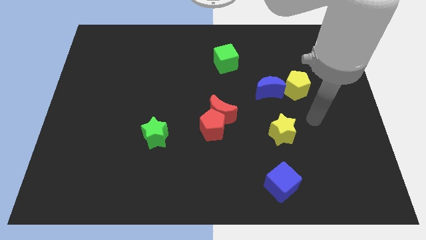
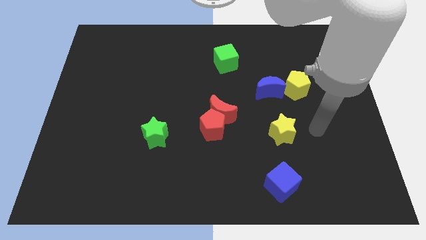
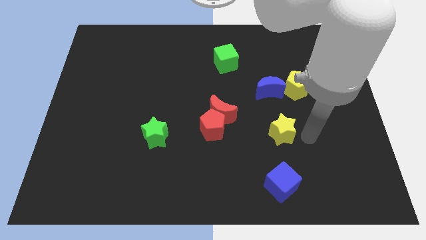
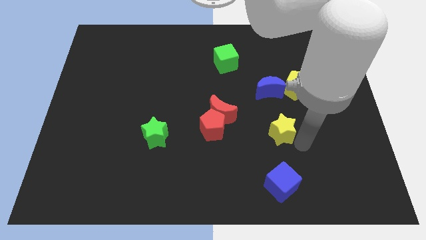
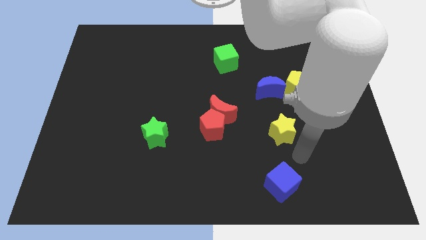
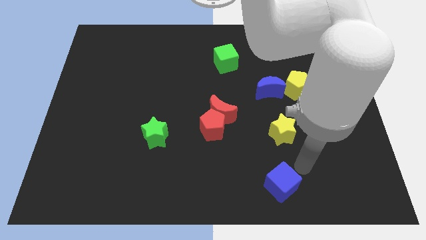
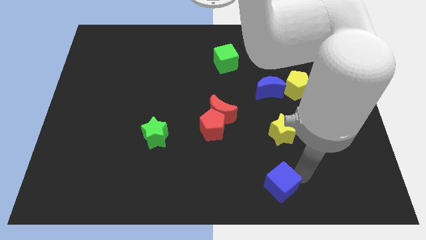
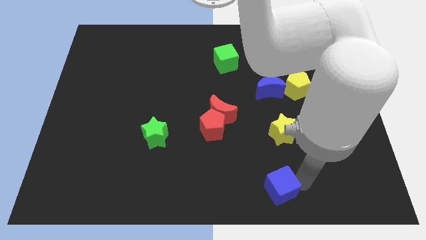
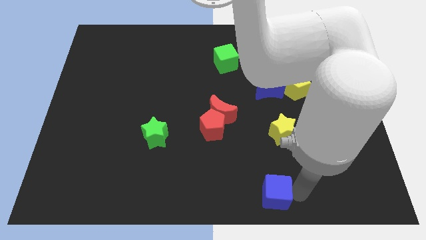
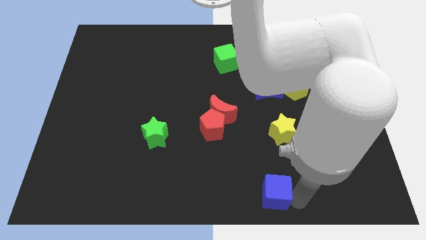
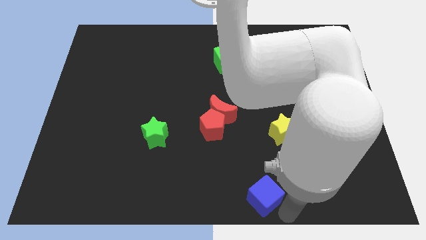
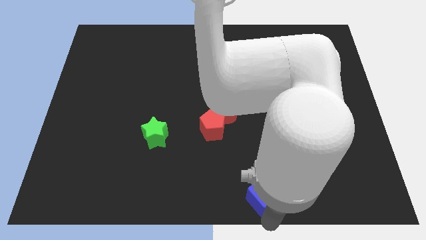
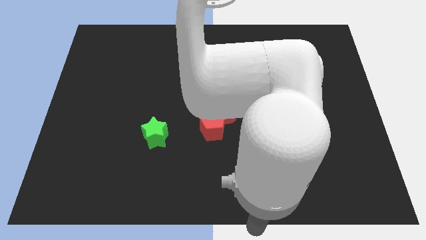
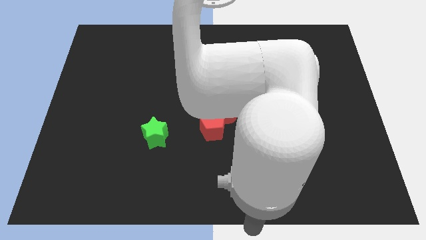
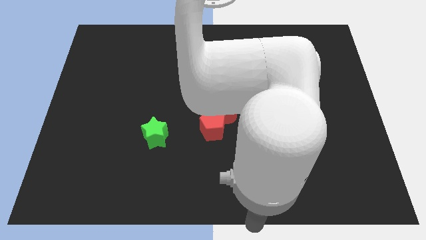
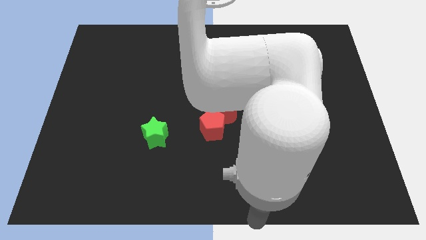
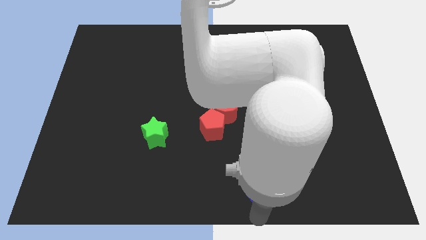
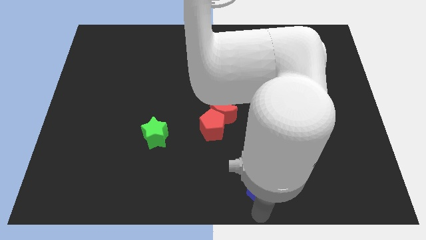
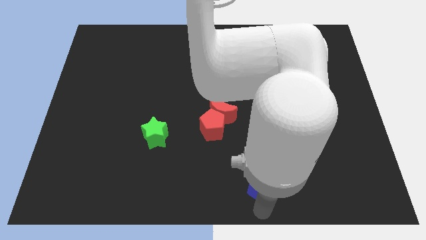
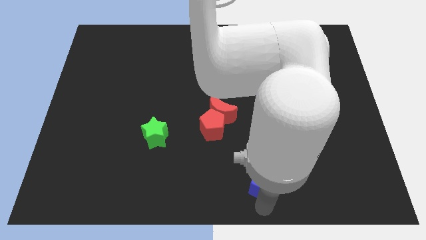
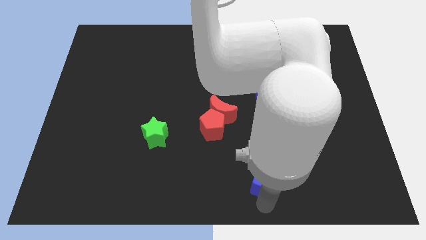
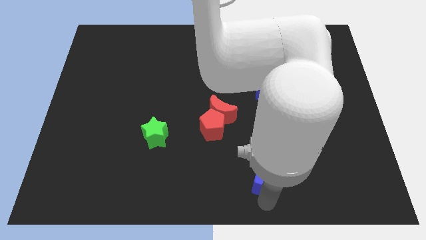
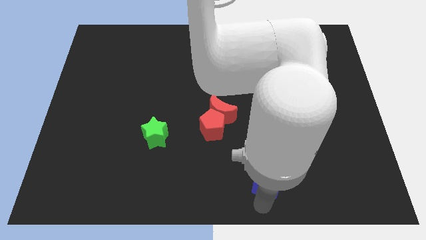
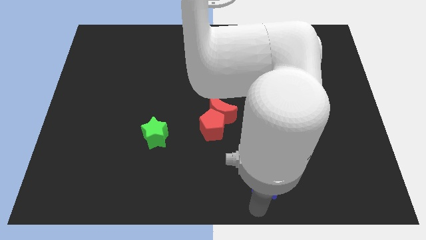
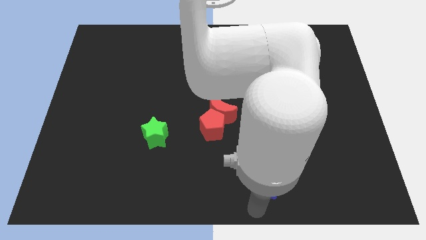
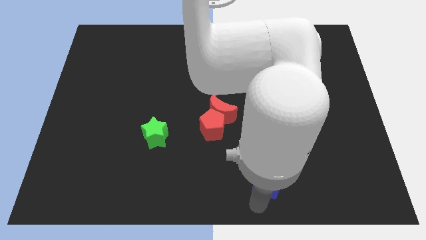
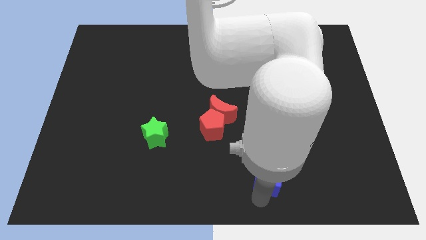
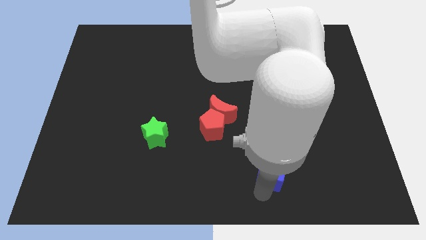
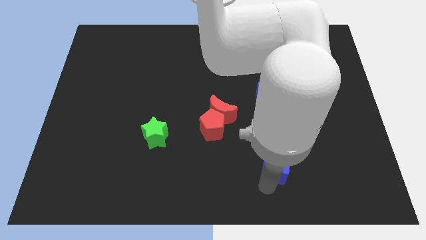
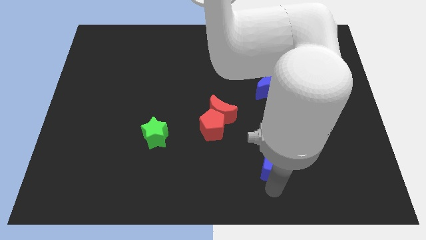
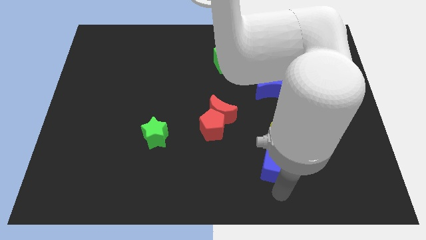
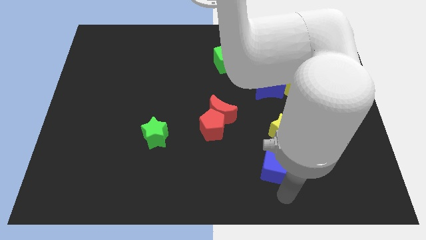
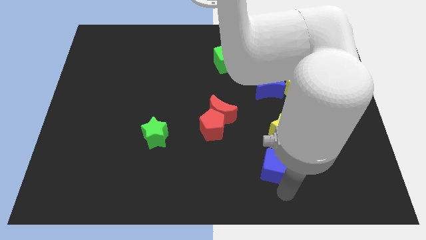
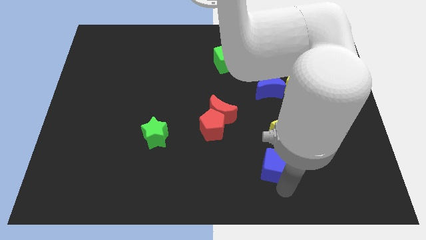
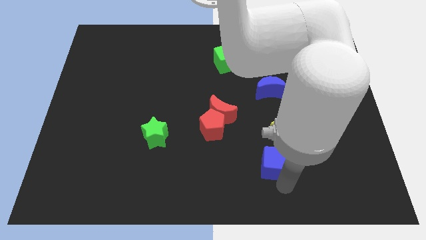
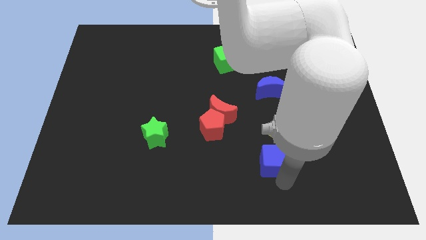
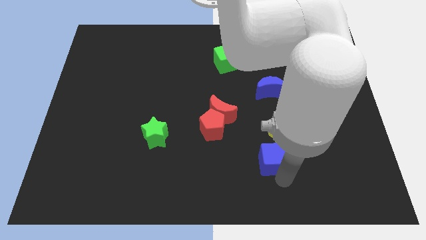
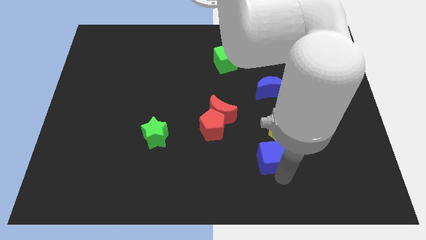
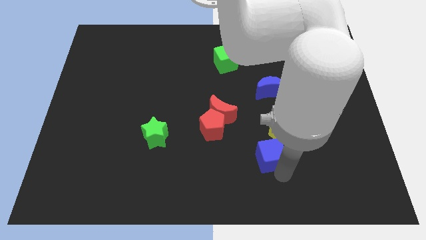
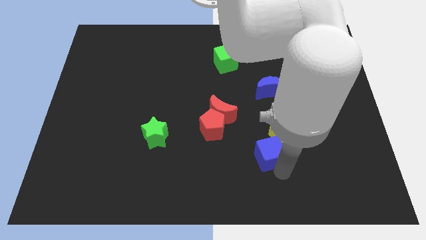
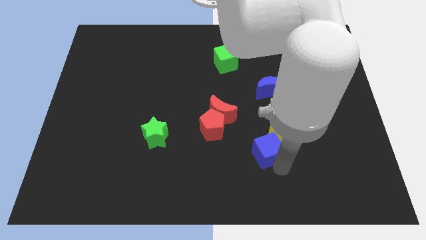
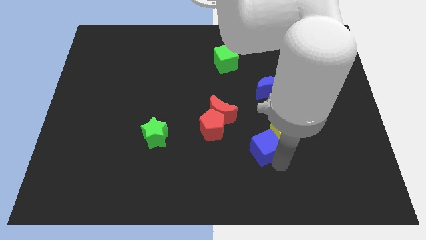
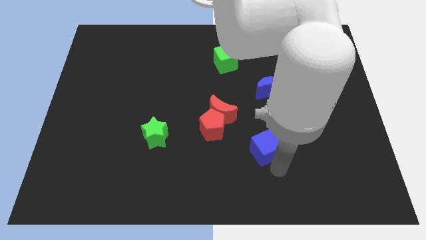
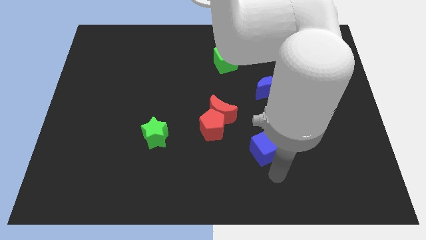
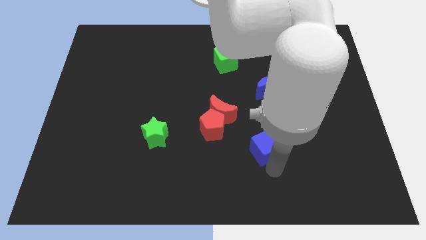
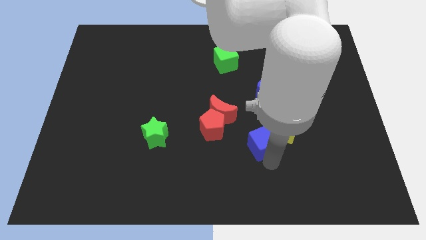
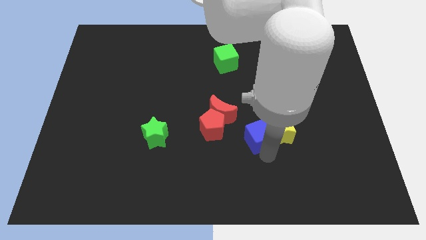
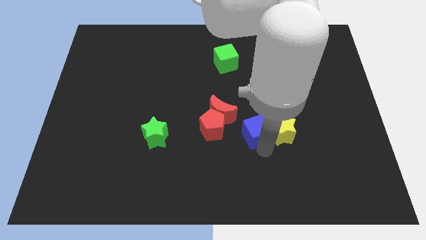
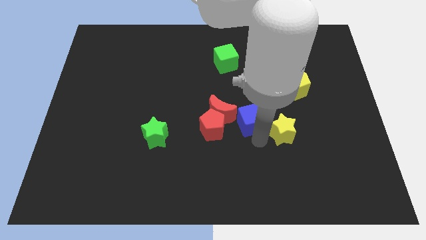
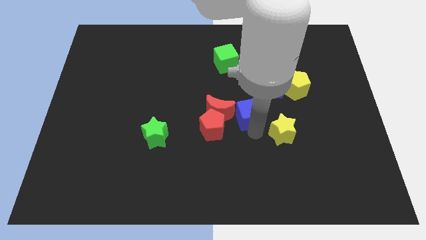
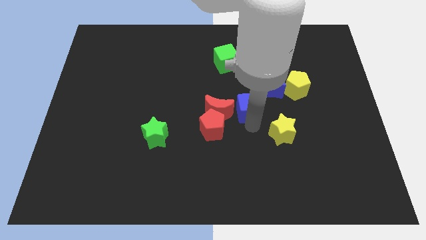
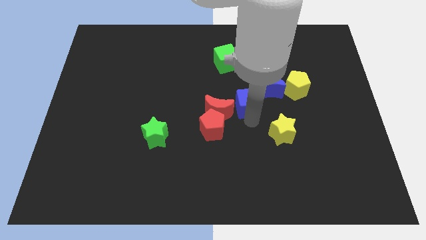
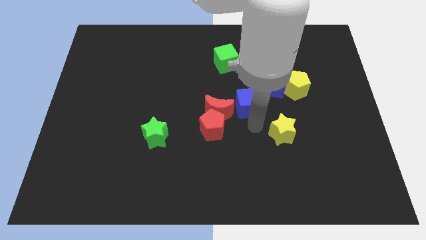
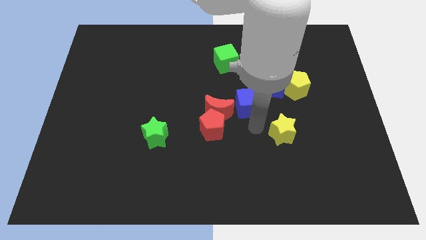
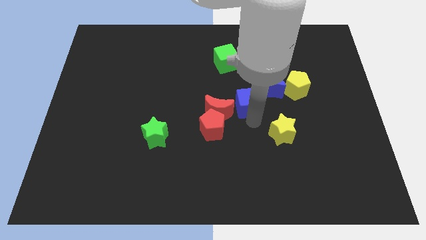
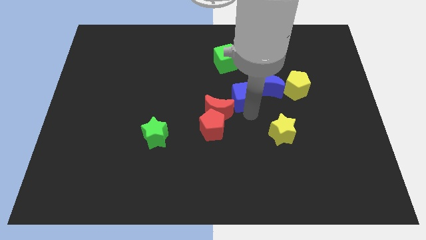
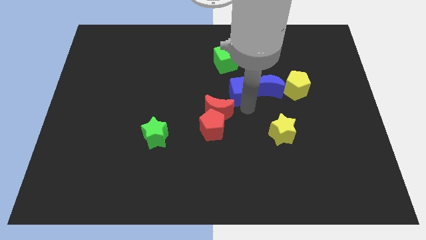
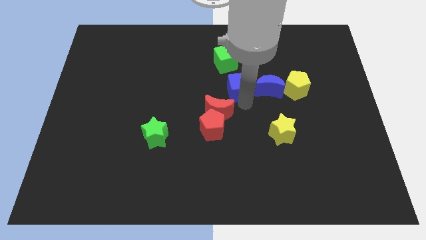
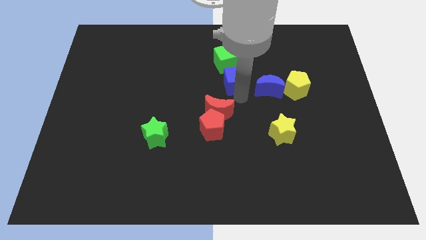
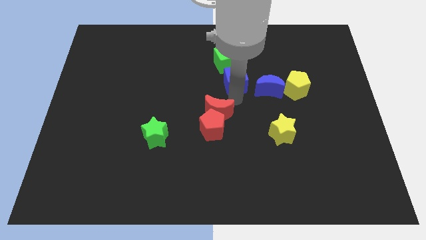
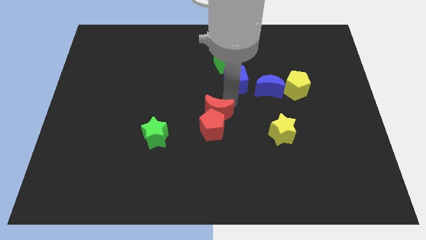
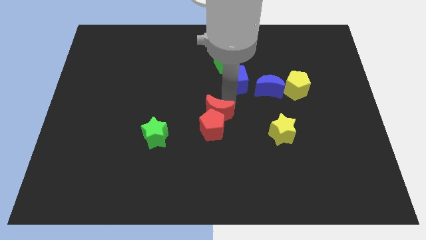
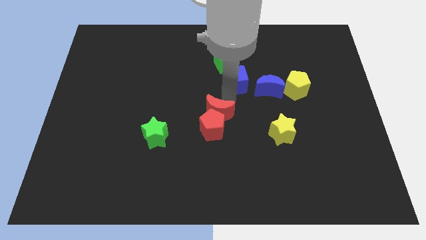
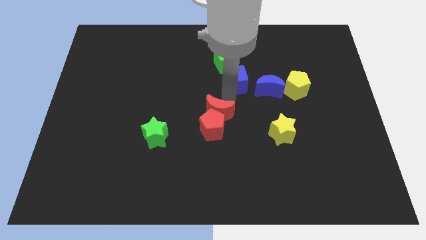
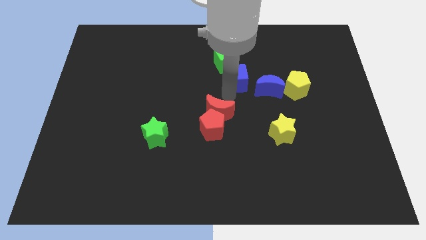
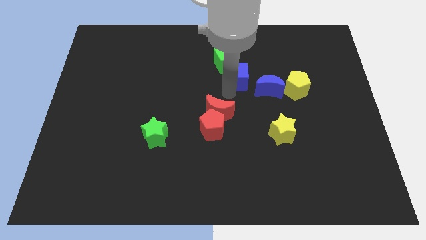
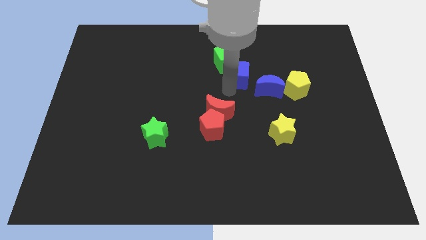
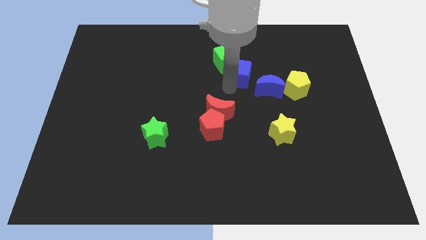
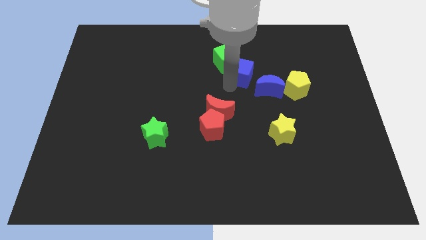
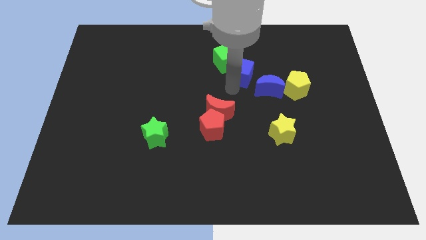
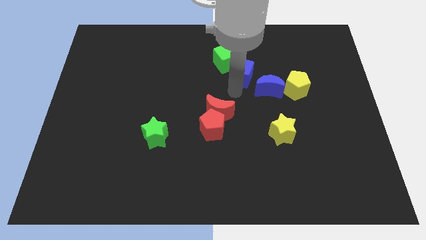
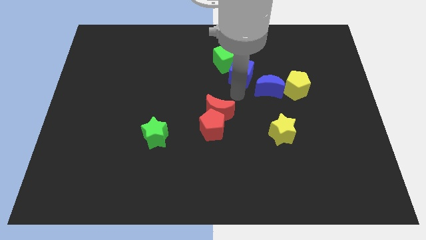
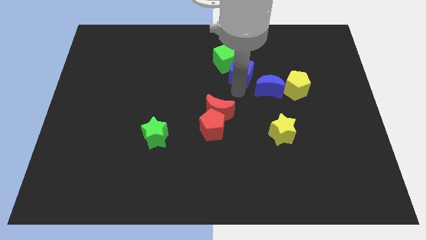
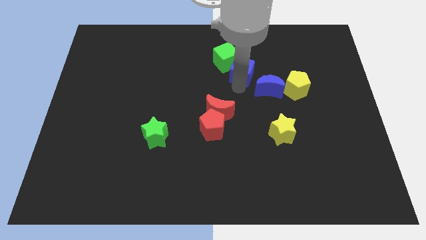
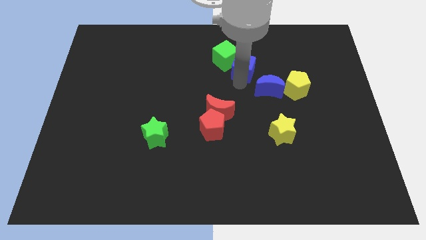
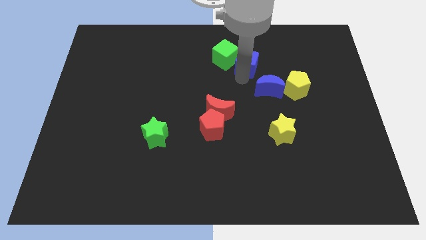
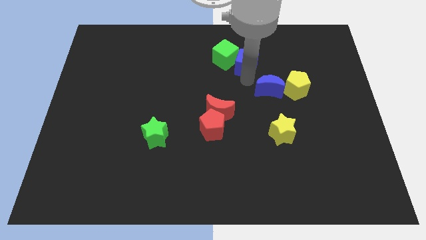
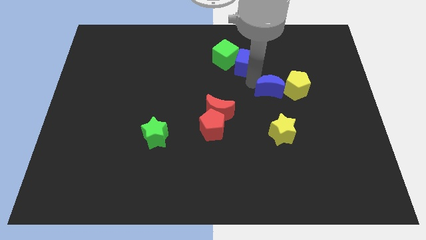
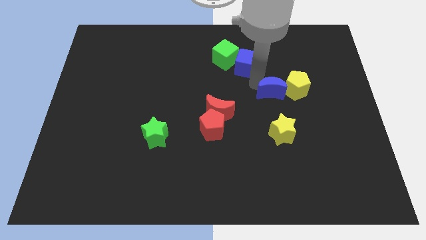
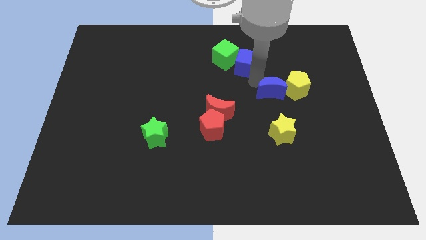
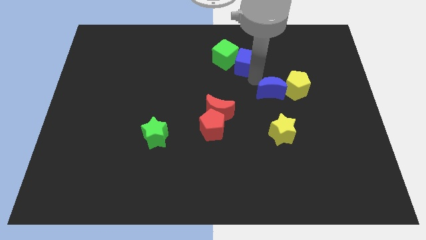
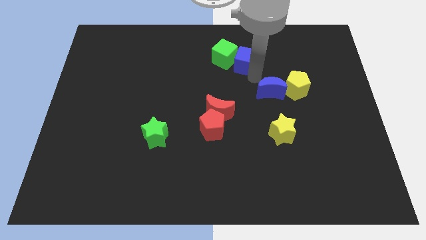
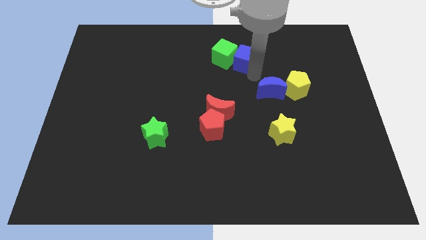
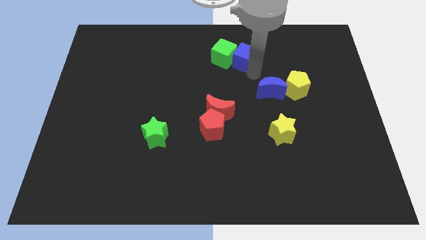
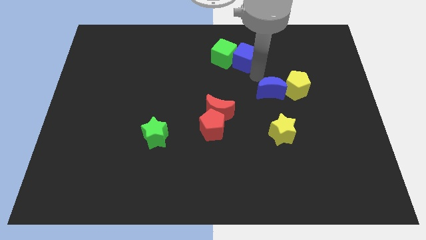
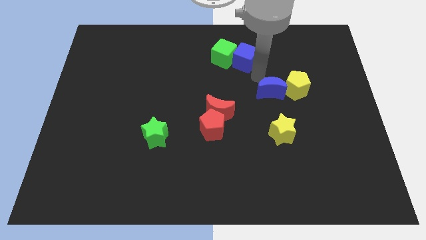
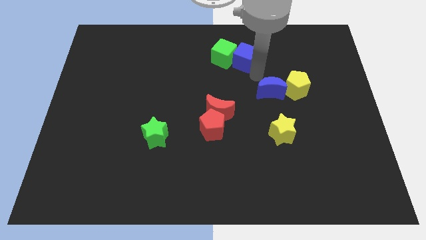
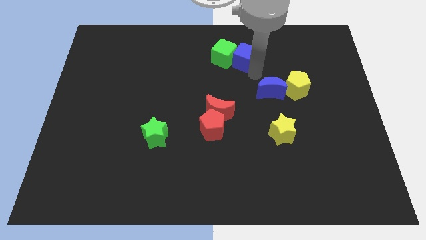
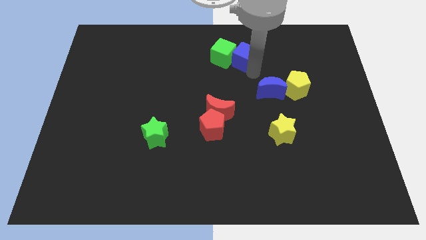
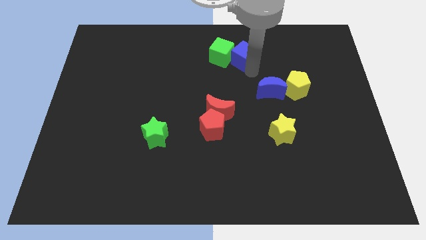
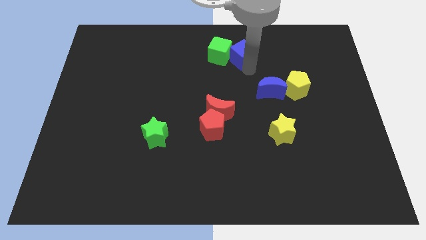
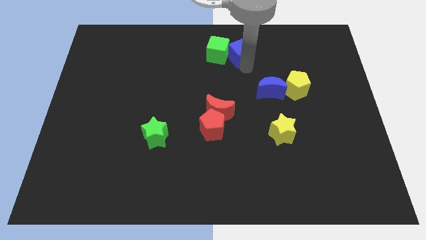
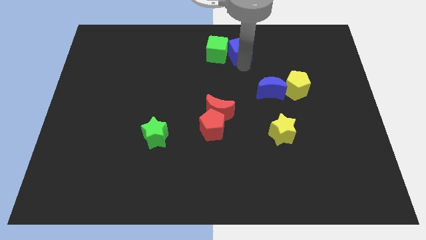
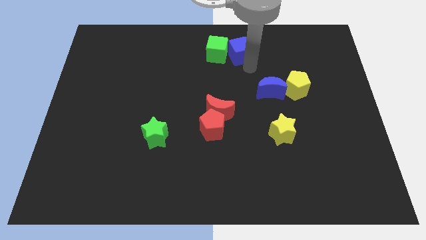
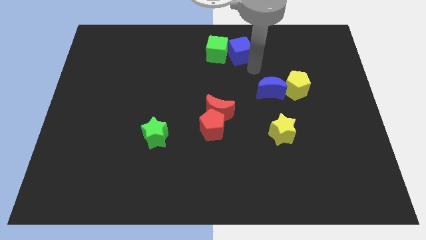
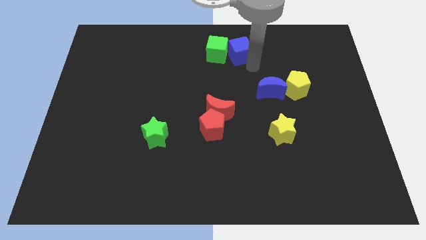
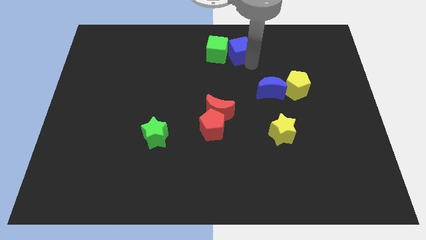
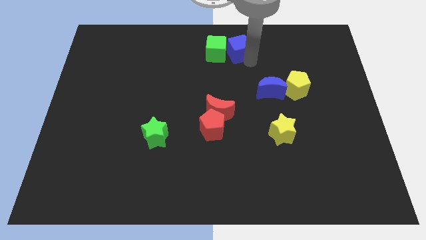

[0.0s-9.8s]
push the blue cube to the towards your base
